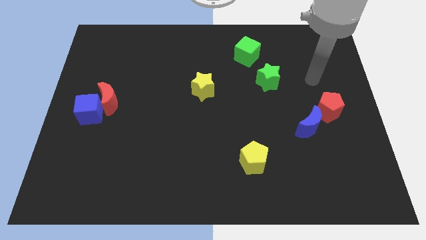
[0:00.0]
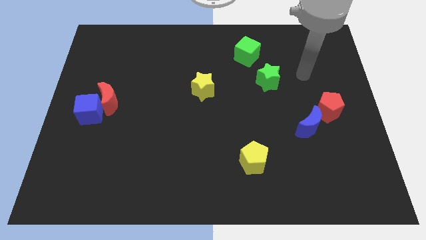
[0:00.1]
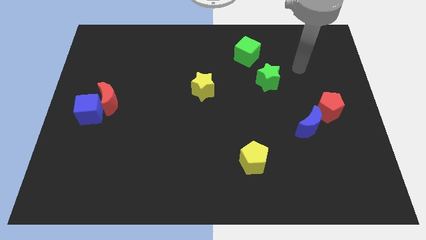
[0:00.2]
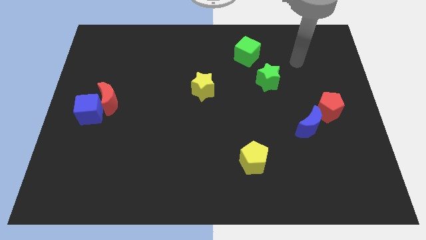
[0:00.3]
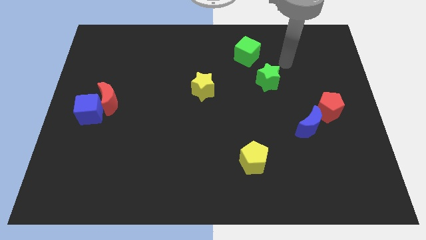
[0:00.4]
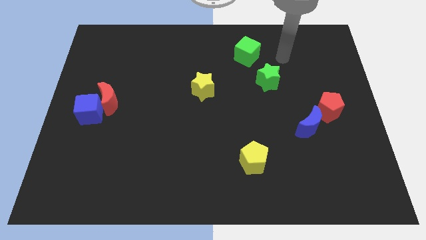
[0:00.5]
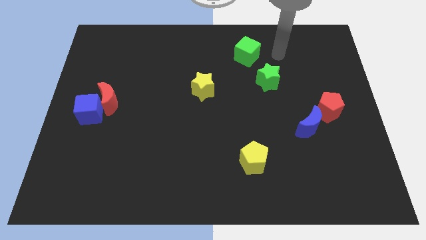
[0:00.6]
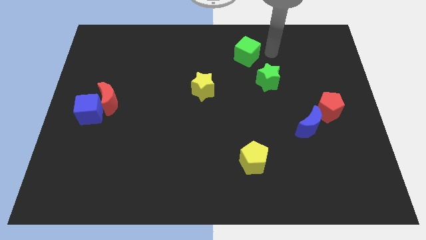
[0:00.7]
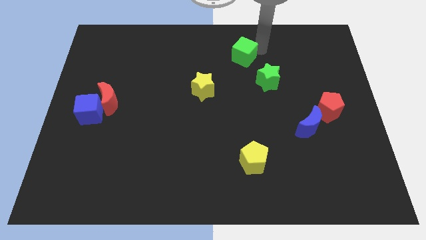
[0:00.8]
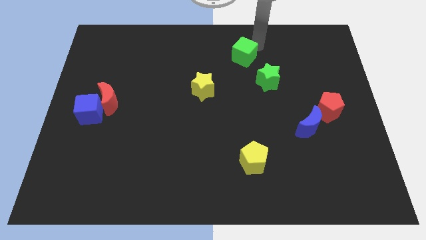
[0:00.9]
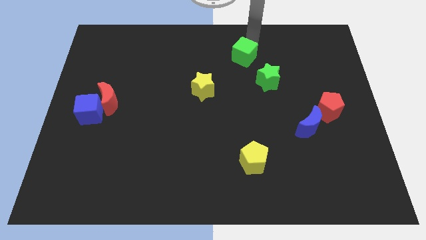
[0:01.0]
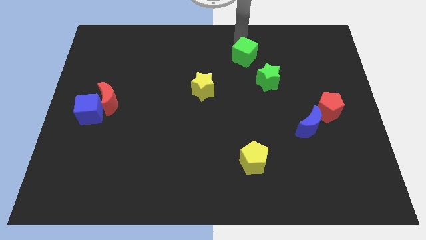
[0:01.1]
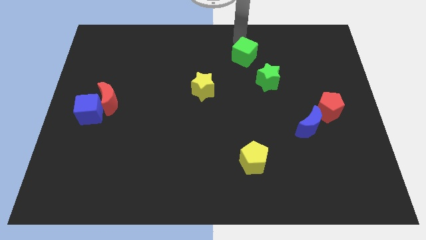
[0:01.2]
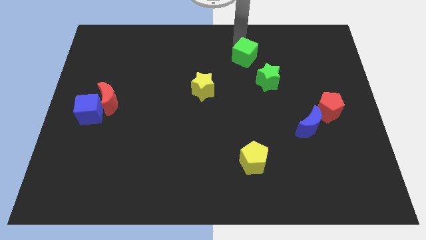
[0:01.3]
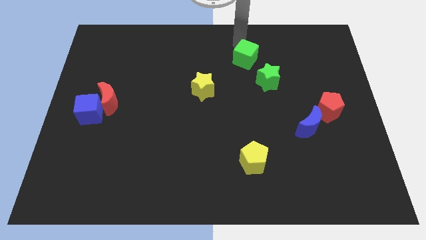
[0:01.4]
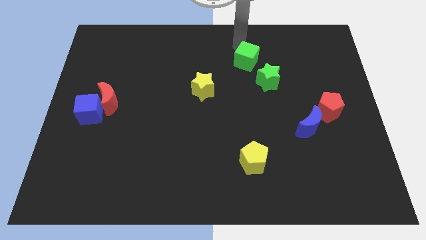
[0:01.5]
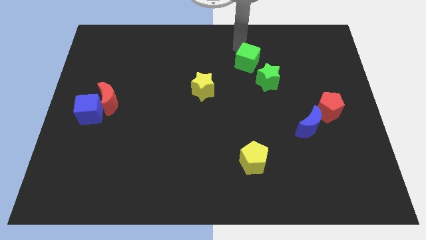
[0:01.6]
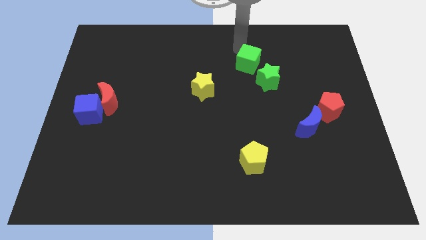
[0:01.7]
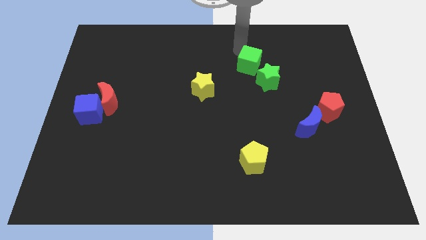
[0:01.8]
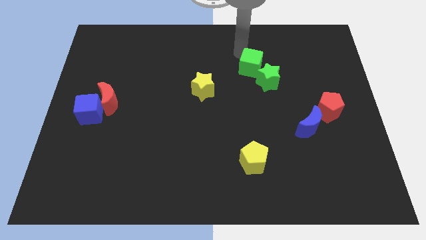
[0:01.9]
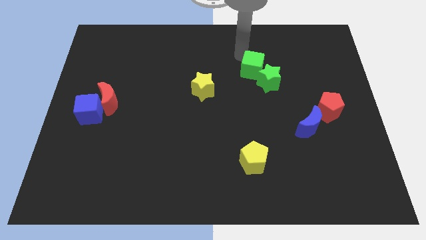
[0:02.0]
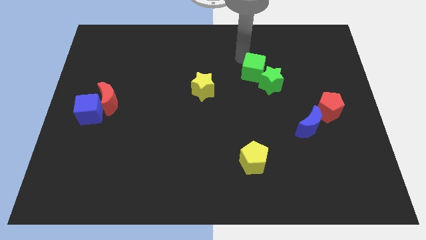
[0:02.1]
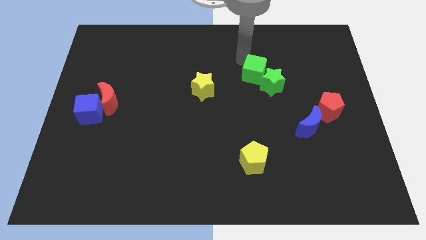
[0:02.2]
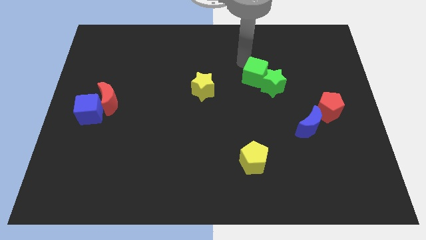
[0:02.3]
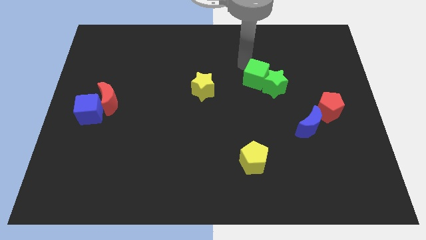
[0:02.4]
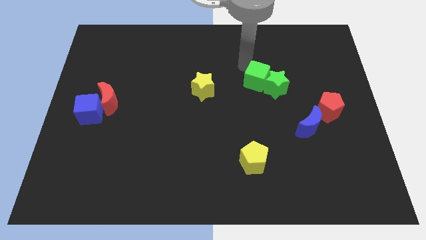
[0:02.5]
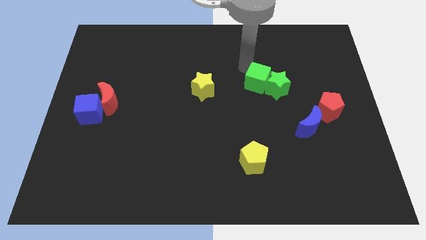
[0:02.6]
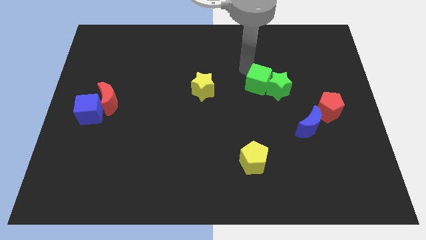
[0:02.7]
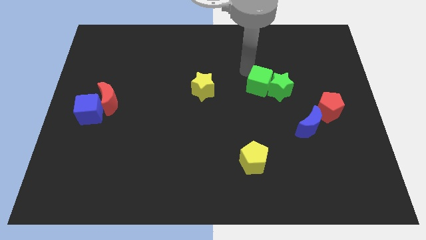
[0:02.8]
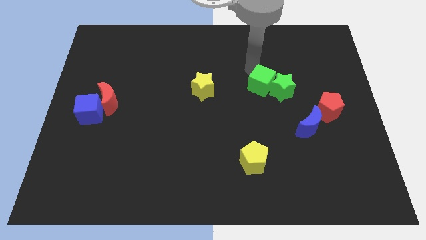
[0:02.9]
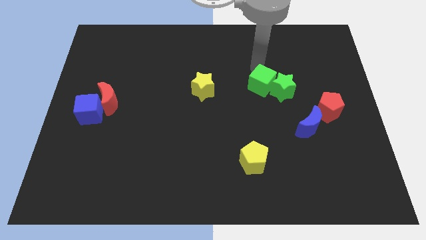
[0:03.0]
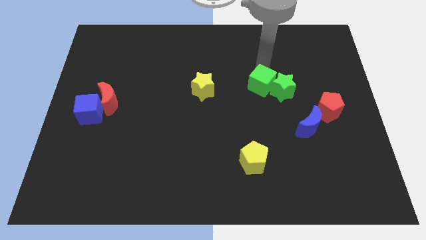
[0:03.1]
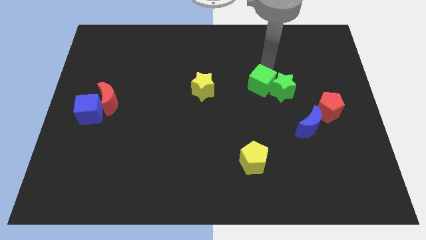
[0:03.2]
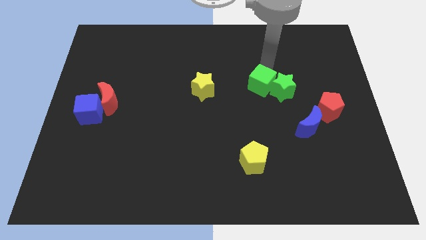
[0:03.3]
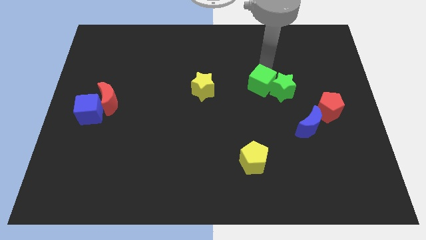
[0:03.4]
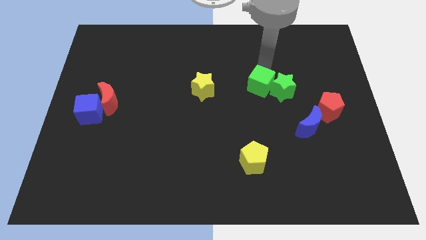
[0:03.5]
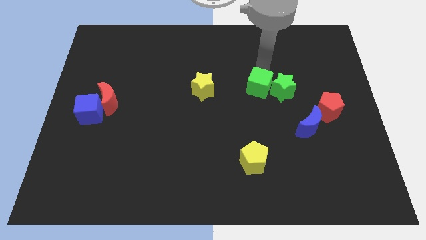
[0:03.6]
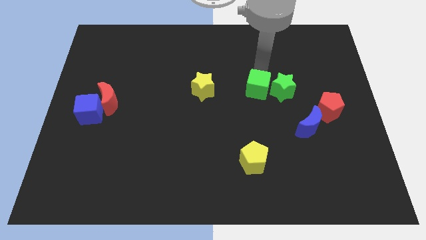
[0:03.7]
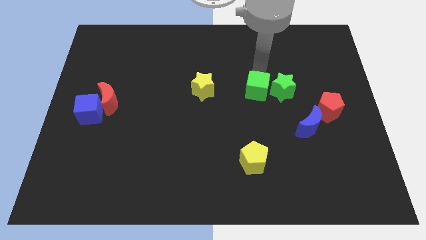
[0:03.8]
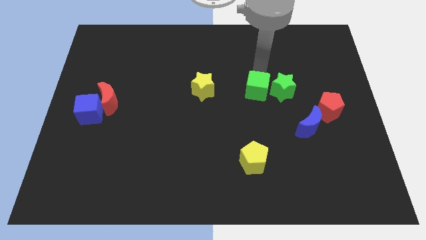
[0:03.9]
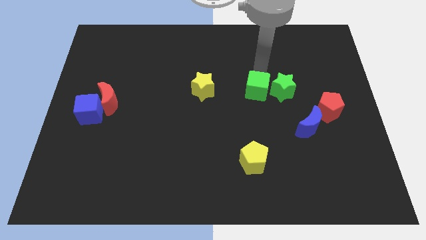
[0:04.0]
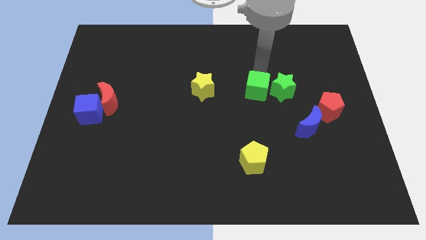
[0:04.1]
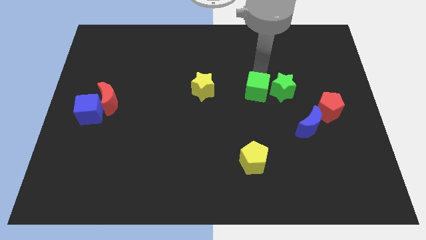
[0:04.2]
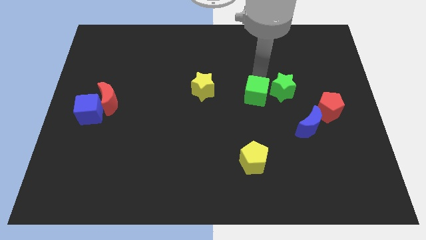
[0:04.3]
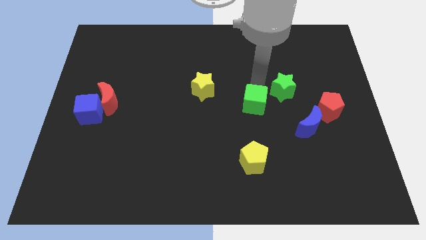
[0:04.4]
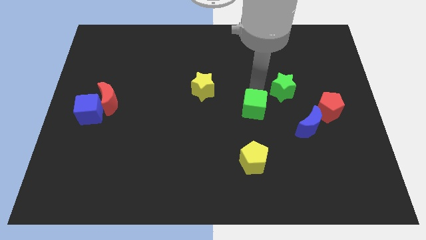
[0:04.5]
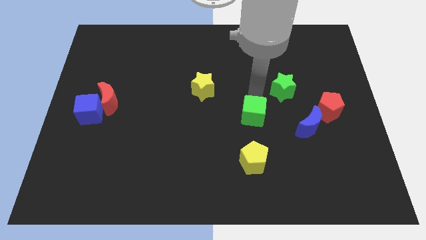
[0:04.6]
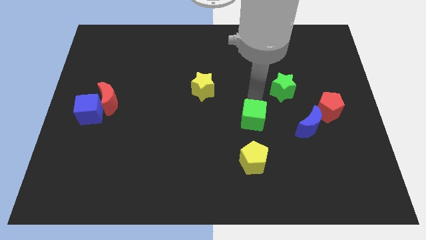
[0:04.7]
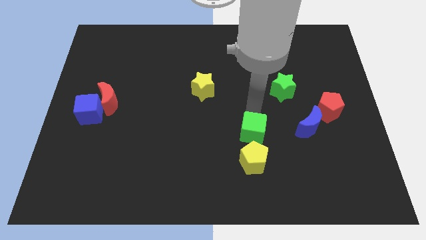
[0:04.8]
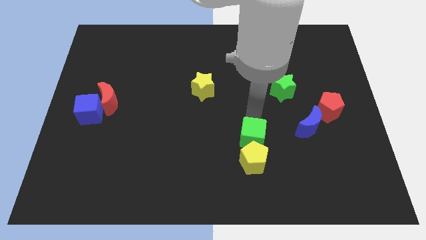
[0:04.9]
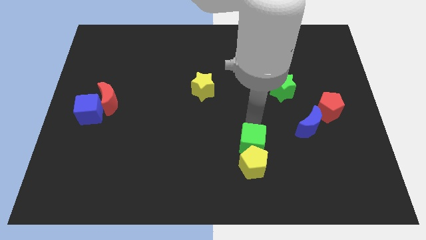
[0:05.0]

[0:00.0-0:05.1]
push the green cube close to the yellow pentagon
